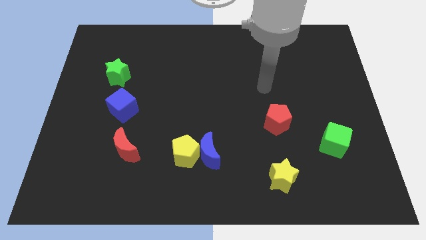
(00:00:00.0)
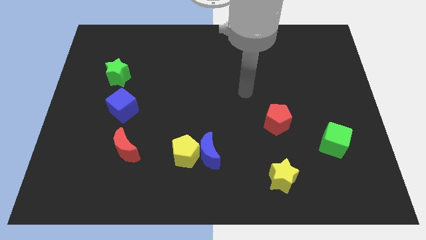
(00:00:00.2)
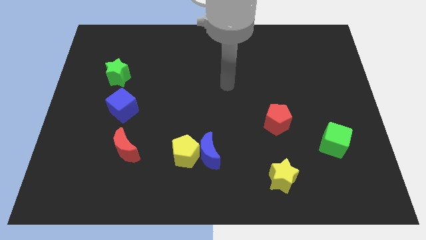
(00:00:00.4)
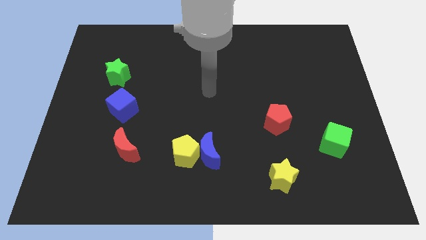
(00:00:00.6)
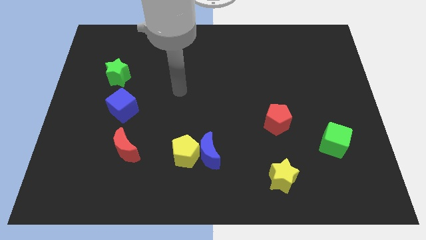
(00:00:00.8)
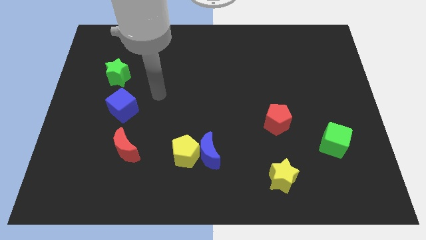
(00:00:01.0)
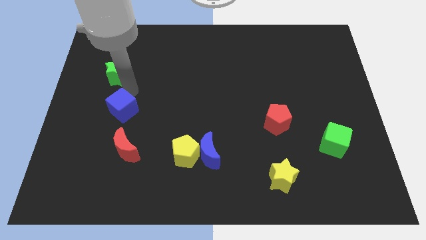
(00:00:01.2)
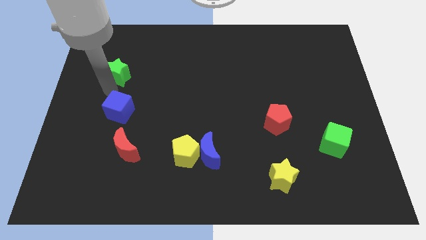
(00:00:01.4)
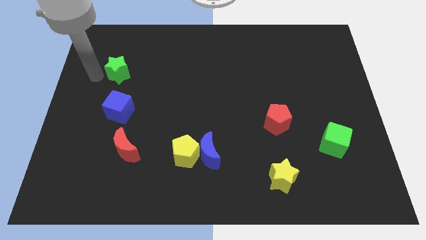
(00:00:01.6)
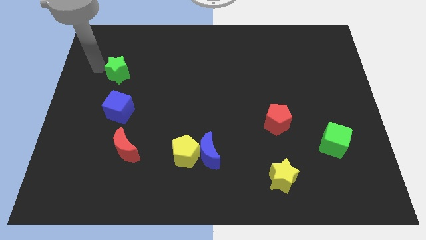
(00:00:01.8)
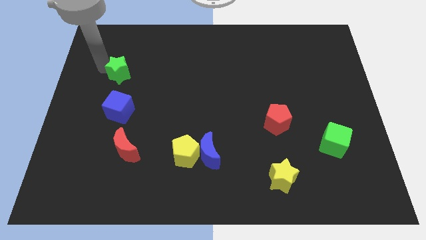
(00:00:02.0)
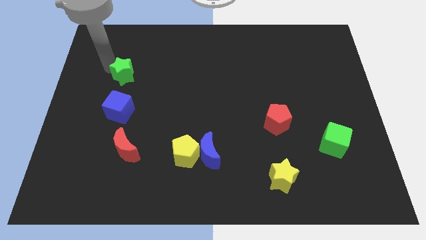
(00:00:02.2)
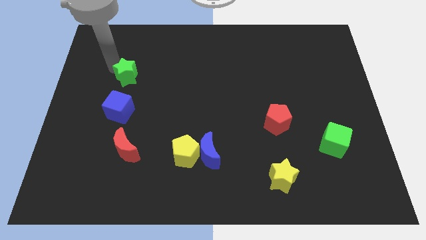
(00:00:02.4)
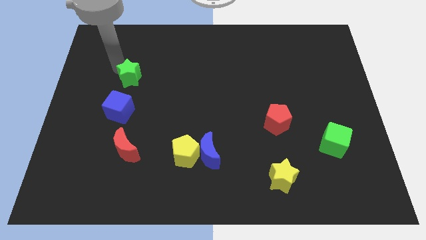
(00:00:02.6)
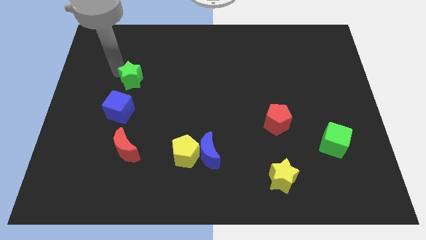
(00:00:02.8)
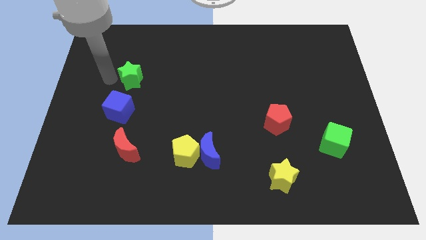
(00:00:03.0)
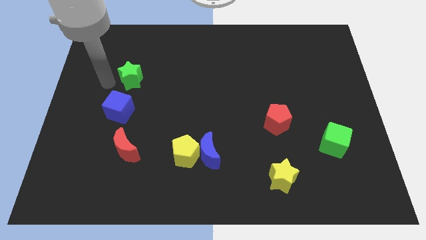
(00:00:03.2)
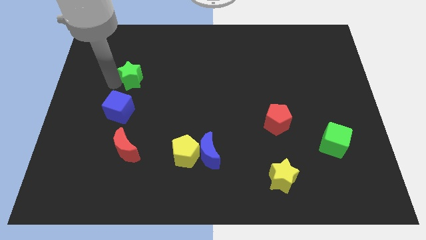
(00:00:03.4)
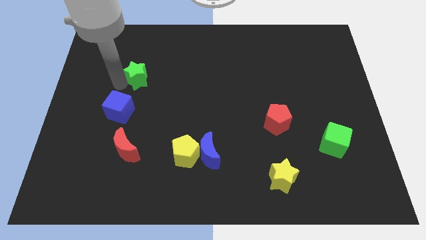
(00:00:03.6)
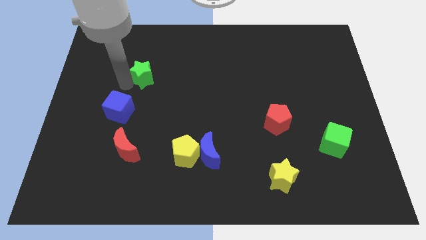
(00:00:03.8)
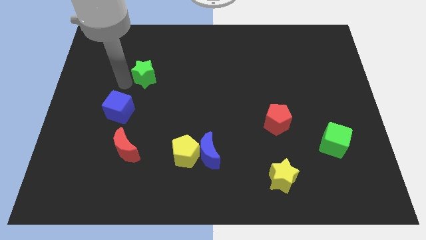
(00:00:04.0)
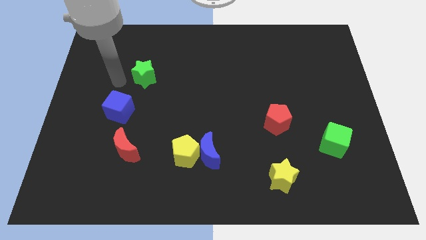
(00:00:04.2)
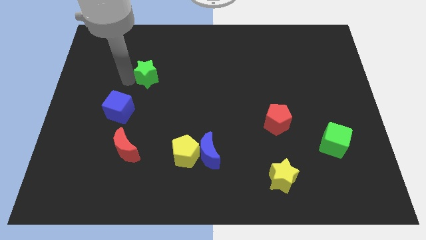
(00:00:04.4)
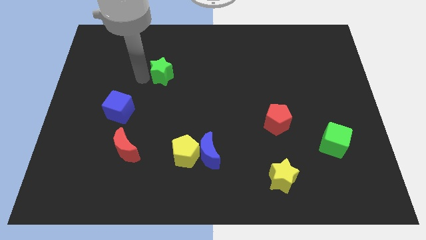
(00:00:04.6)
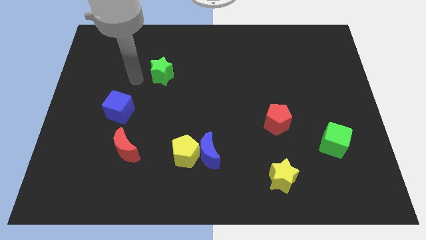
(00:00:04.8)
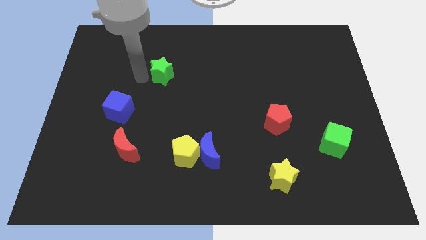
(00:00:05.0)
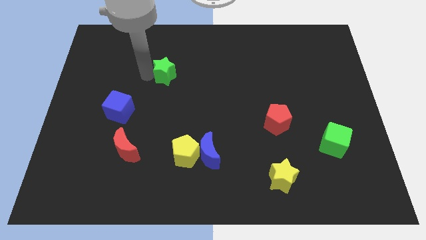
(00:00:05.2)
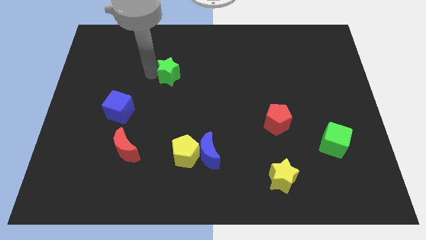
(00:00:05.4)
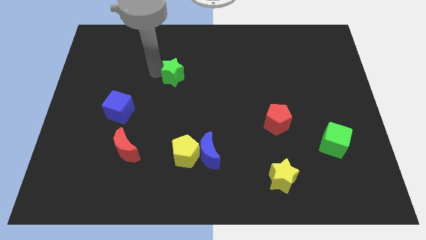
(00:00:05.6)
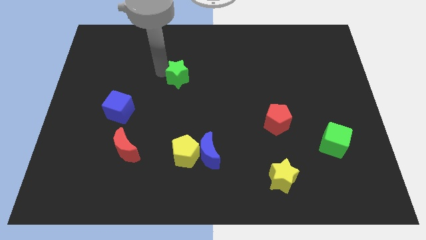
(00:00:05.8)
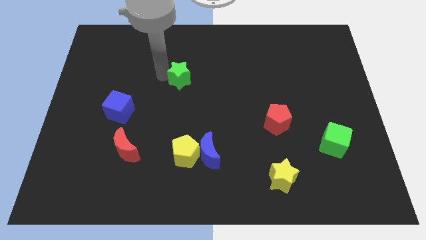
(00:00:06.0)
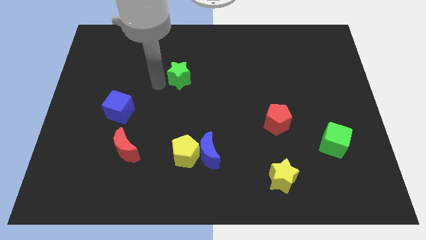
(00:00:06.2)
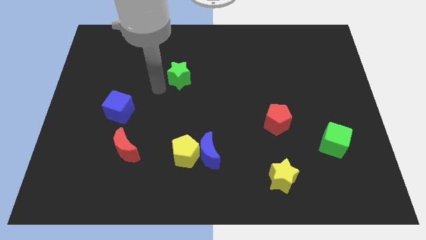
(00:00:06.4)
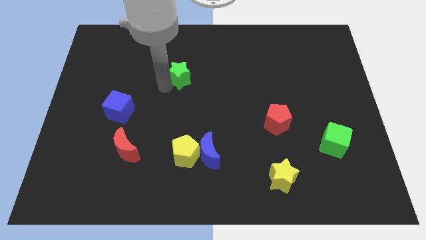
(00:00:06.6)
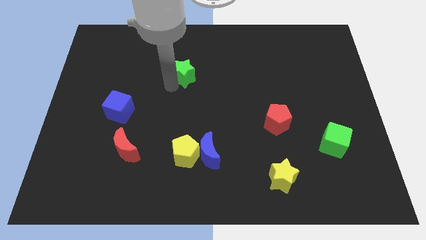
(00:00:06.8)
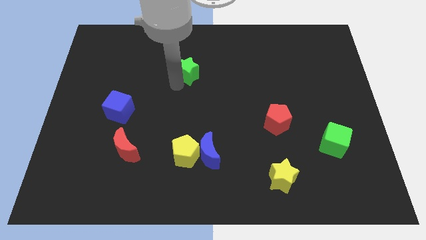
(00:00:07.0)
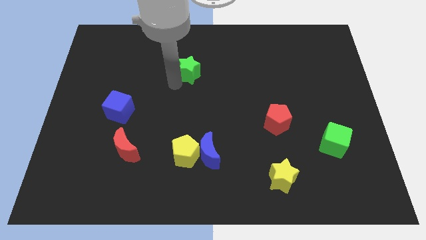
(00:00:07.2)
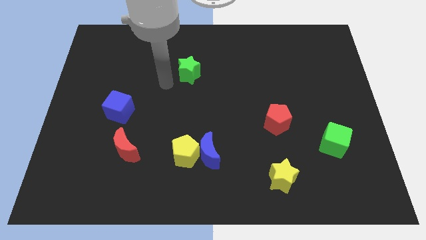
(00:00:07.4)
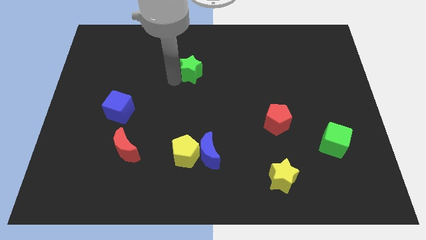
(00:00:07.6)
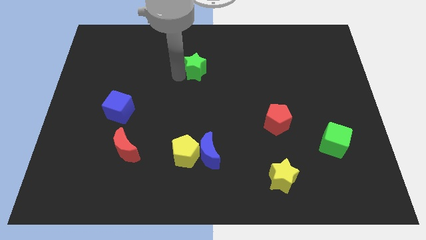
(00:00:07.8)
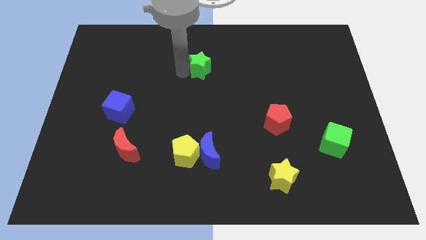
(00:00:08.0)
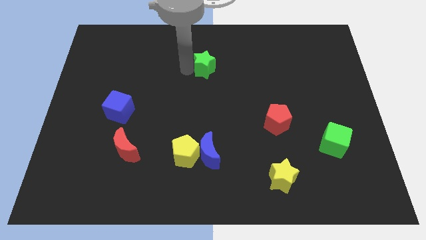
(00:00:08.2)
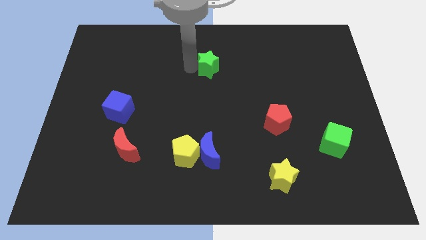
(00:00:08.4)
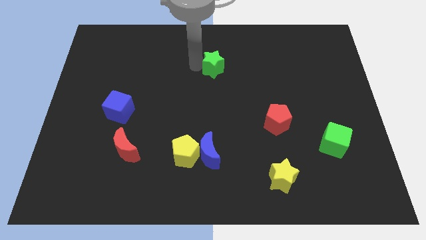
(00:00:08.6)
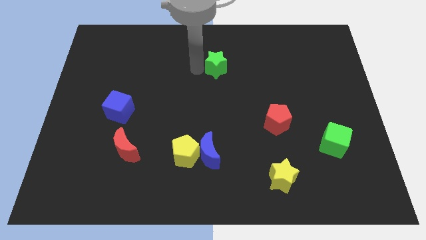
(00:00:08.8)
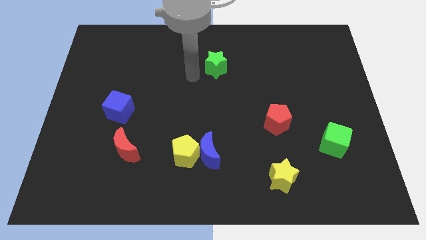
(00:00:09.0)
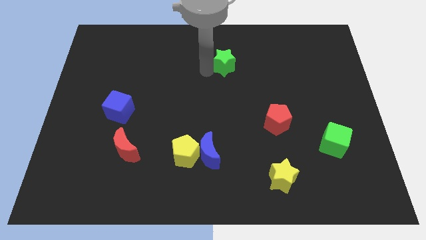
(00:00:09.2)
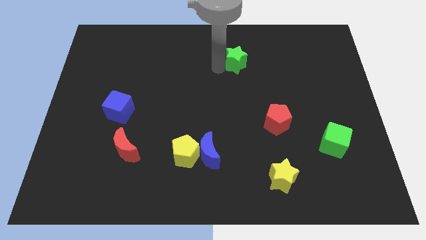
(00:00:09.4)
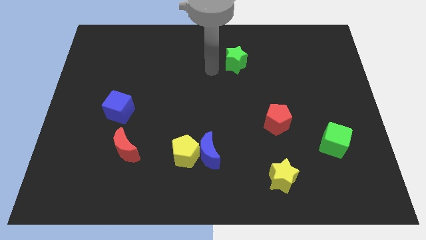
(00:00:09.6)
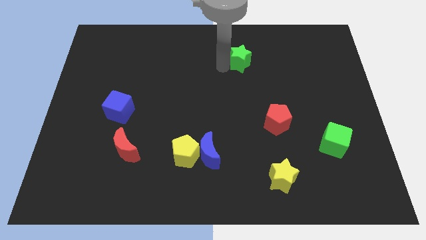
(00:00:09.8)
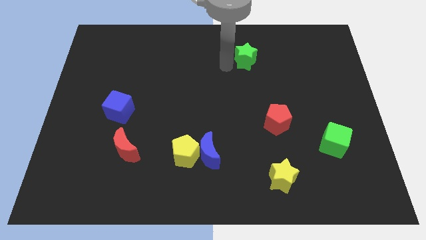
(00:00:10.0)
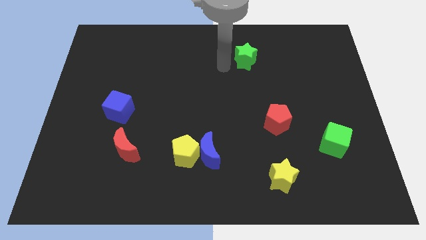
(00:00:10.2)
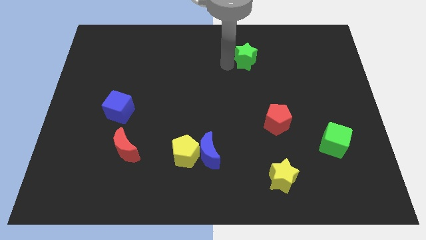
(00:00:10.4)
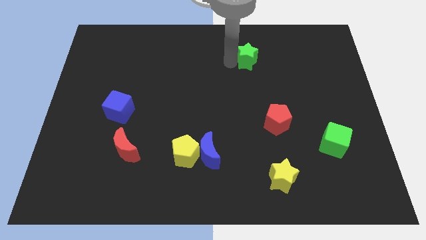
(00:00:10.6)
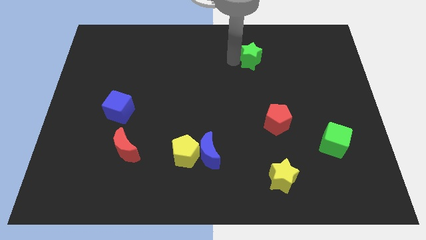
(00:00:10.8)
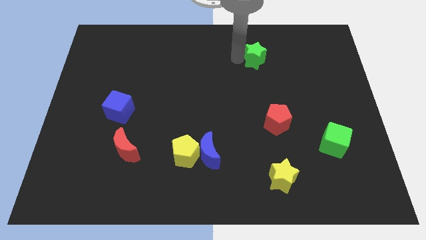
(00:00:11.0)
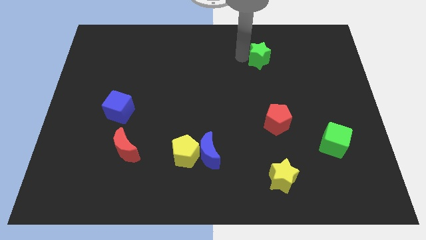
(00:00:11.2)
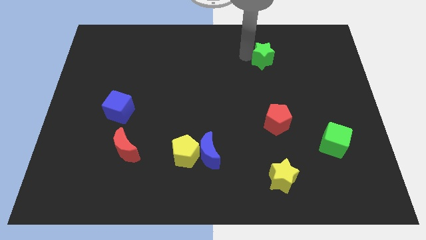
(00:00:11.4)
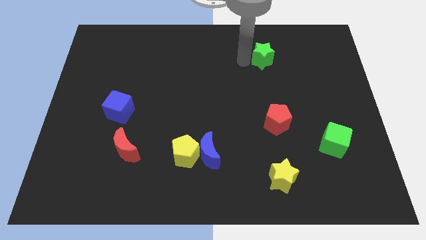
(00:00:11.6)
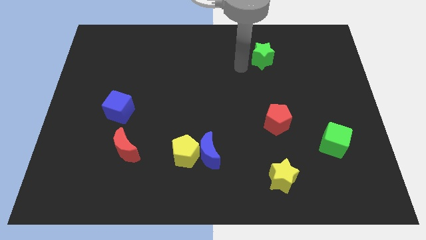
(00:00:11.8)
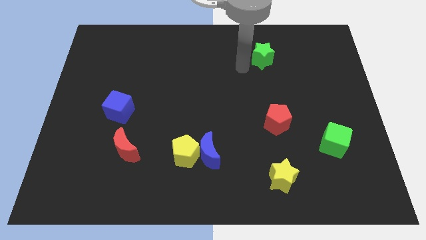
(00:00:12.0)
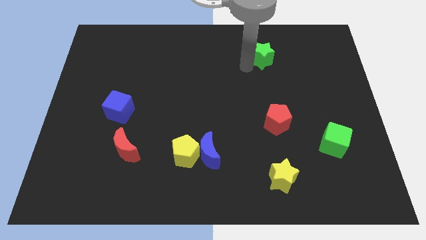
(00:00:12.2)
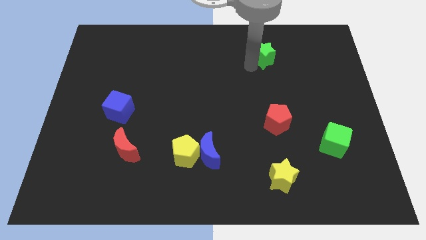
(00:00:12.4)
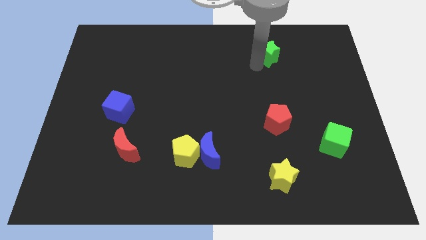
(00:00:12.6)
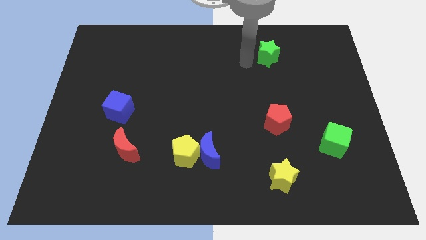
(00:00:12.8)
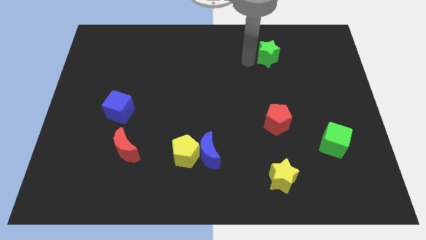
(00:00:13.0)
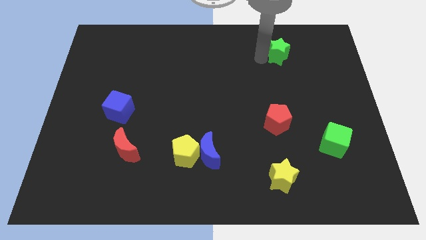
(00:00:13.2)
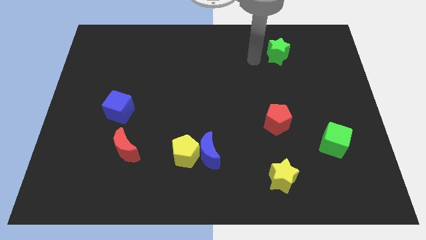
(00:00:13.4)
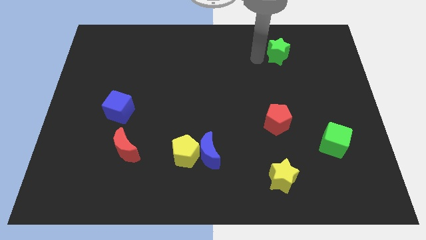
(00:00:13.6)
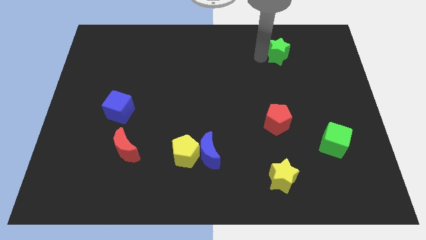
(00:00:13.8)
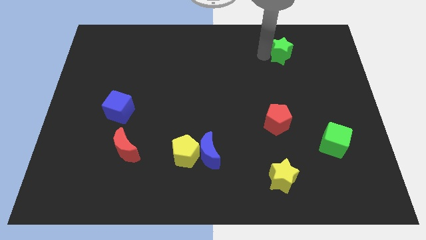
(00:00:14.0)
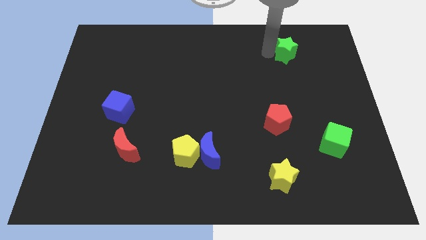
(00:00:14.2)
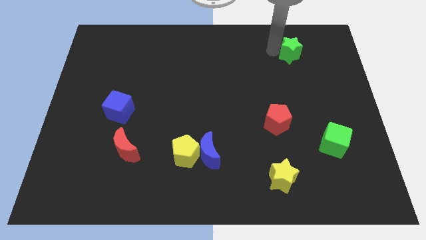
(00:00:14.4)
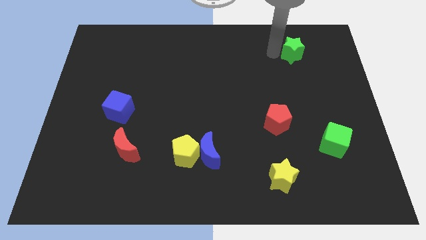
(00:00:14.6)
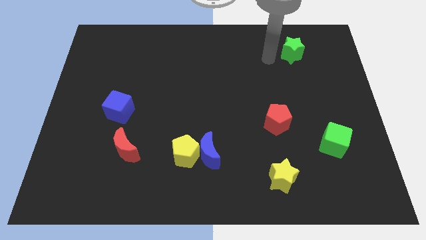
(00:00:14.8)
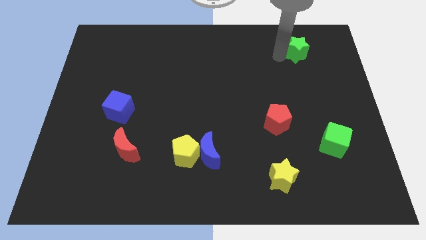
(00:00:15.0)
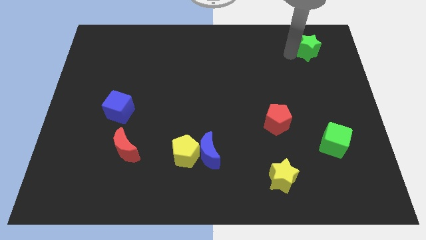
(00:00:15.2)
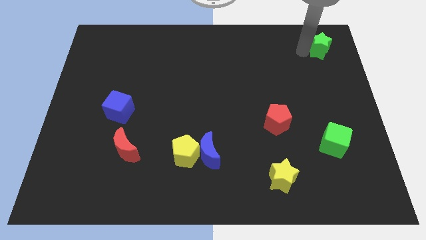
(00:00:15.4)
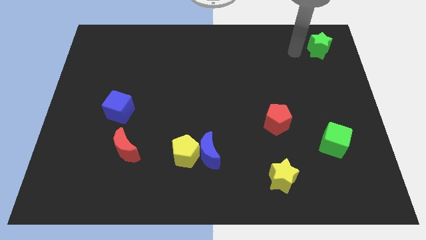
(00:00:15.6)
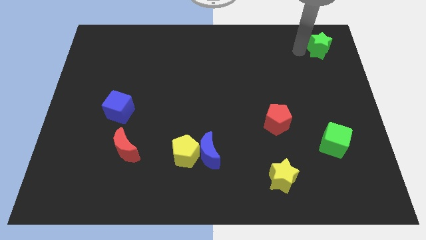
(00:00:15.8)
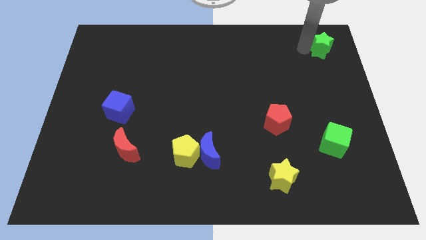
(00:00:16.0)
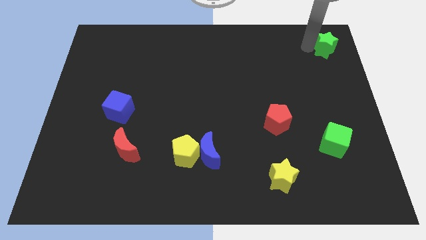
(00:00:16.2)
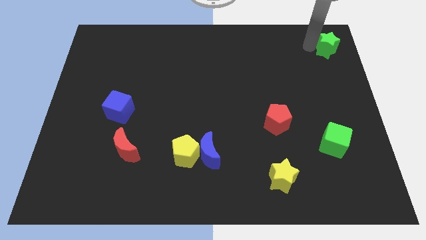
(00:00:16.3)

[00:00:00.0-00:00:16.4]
put the green star to the top right corner
